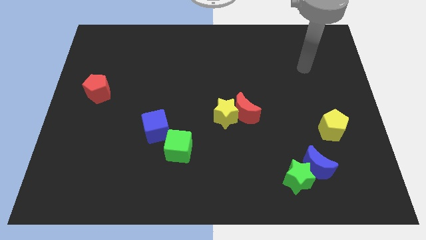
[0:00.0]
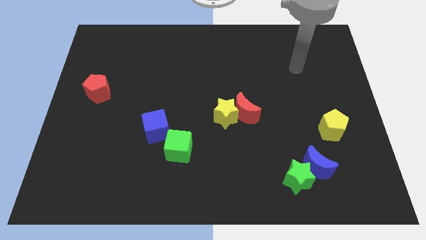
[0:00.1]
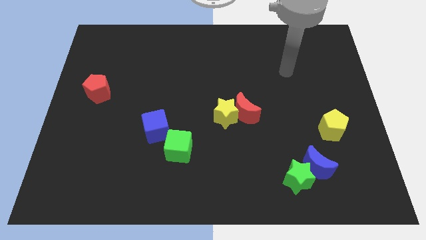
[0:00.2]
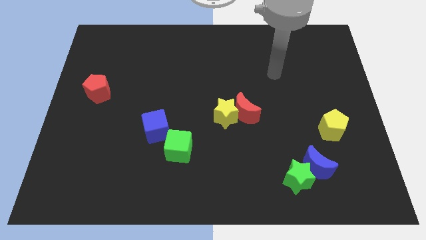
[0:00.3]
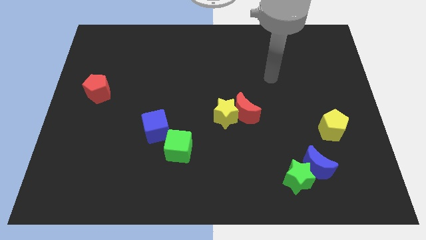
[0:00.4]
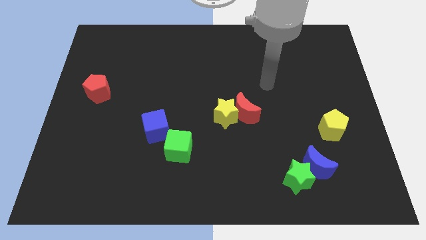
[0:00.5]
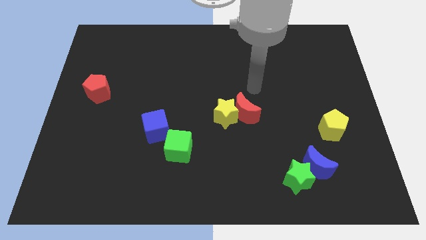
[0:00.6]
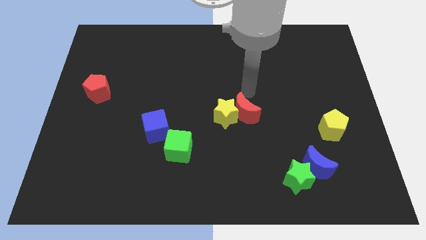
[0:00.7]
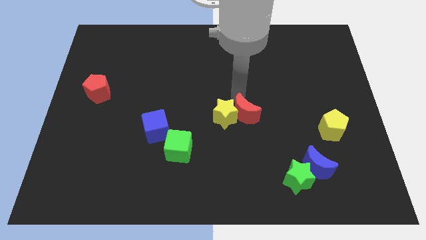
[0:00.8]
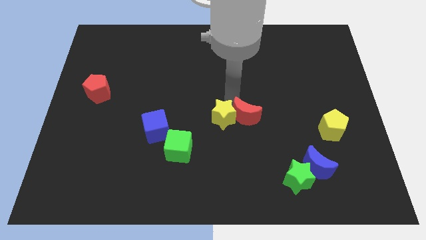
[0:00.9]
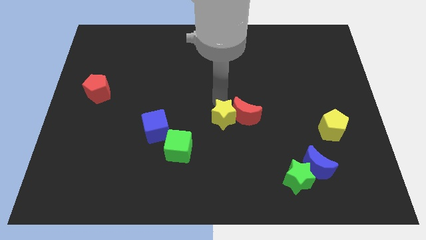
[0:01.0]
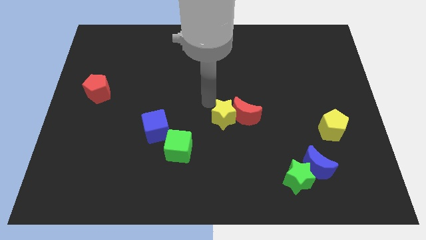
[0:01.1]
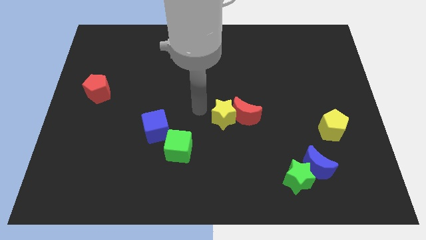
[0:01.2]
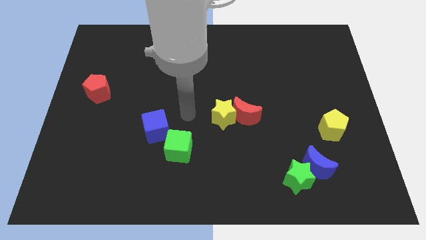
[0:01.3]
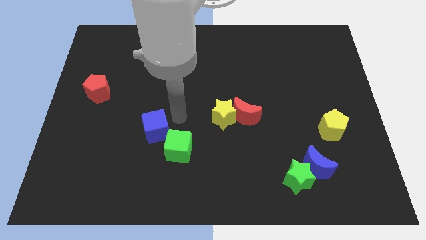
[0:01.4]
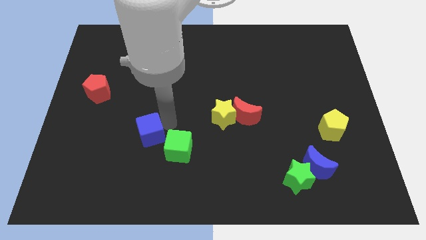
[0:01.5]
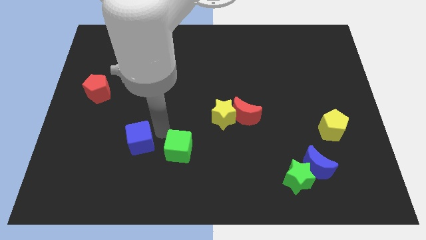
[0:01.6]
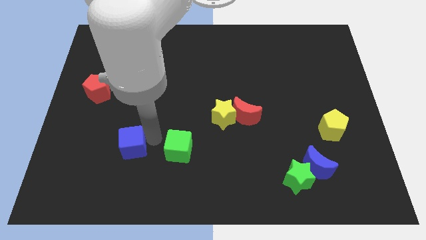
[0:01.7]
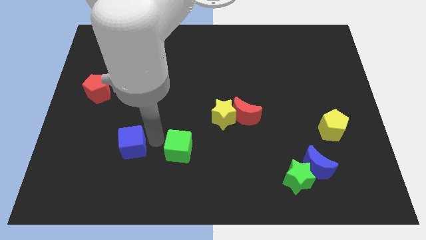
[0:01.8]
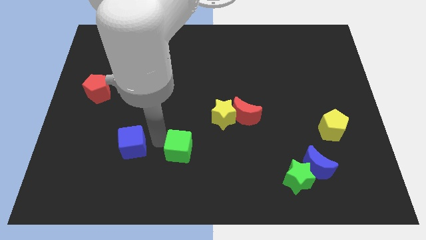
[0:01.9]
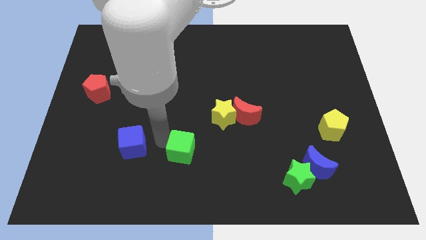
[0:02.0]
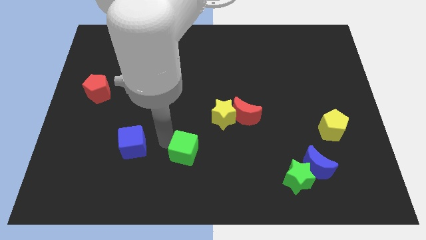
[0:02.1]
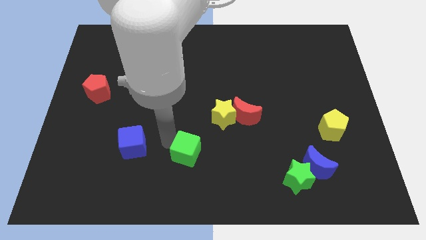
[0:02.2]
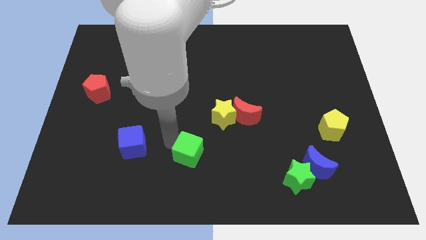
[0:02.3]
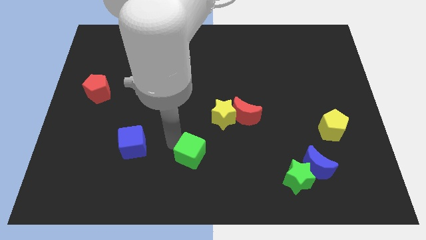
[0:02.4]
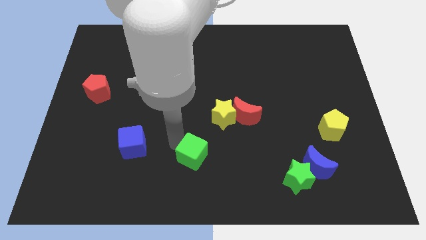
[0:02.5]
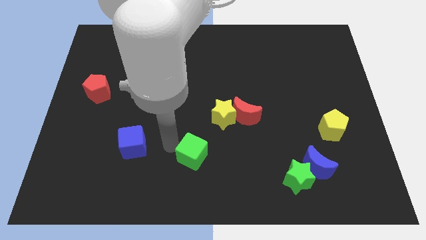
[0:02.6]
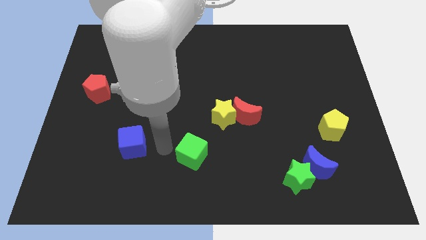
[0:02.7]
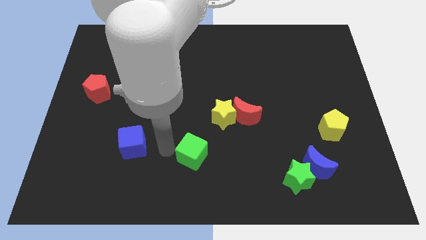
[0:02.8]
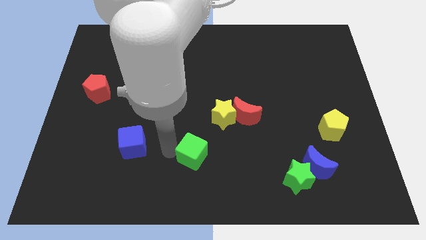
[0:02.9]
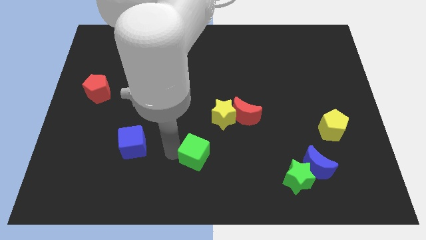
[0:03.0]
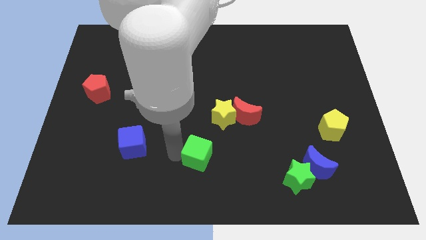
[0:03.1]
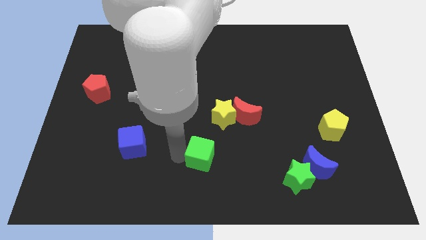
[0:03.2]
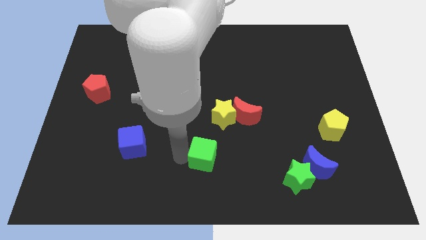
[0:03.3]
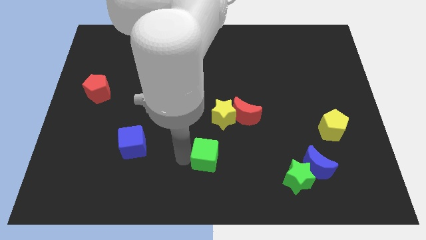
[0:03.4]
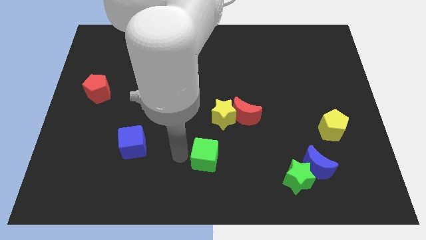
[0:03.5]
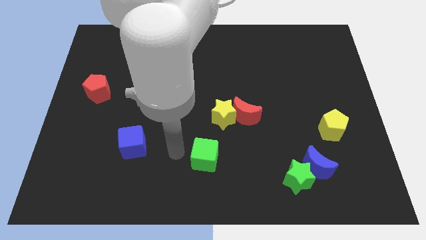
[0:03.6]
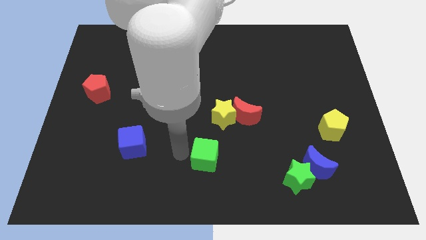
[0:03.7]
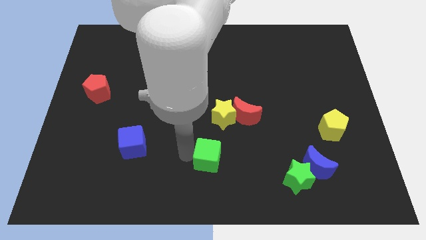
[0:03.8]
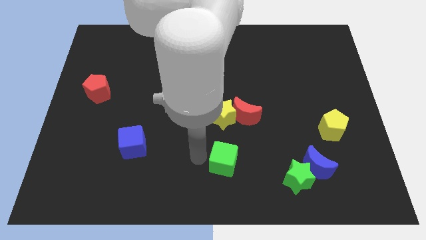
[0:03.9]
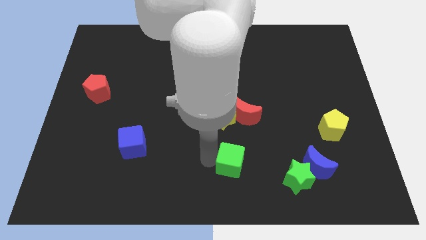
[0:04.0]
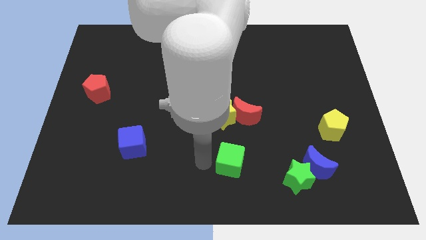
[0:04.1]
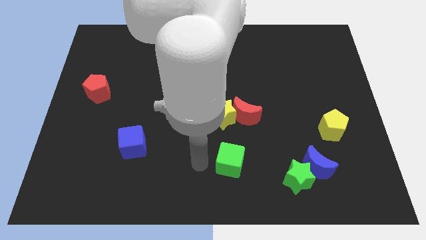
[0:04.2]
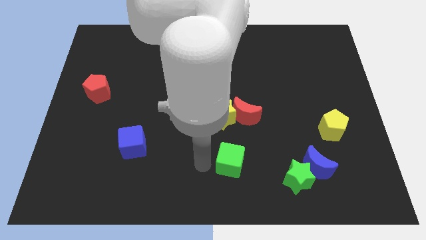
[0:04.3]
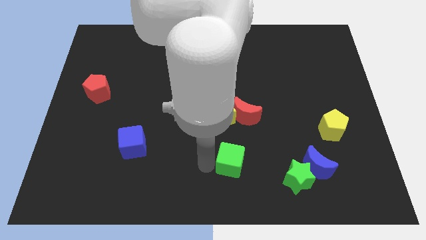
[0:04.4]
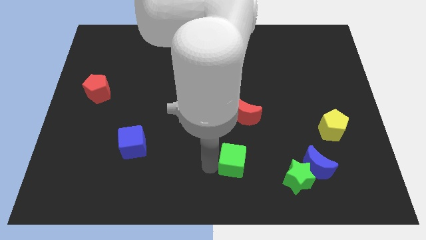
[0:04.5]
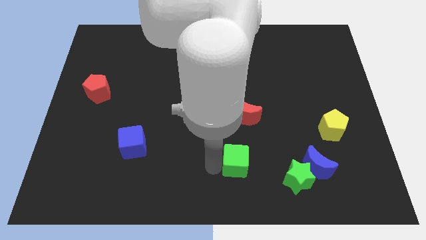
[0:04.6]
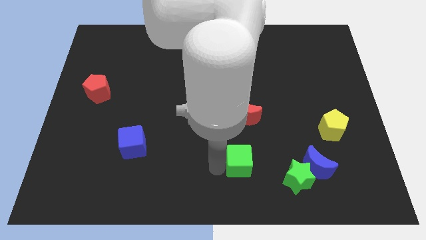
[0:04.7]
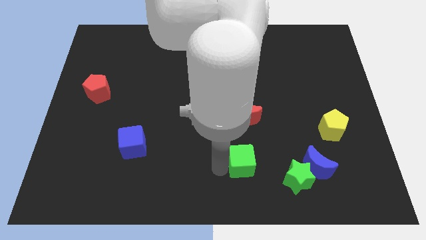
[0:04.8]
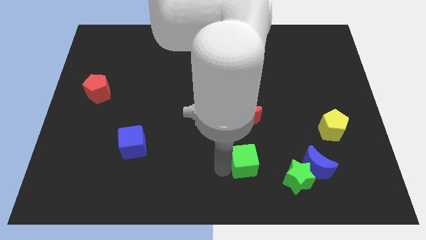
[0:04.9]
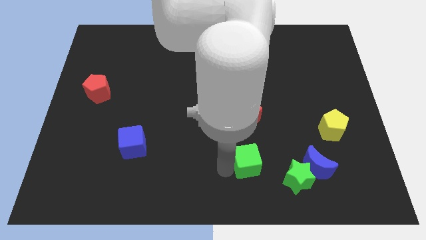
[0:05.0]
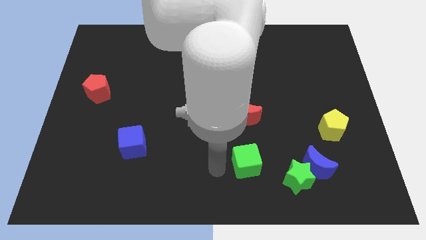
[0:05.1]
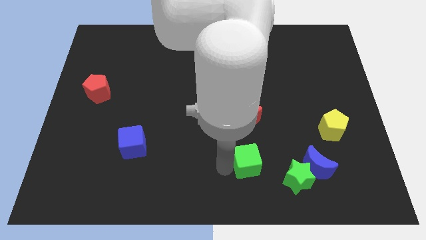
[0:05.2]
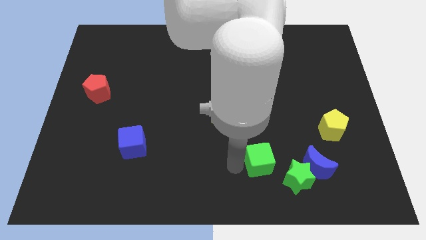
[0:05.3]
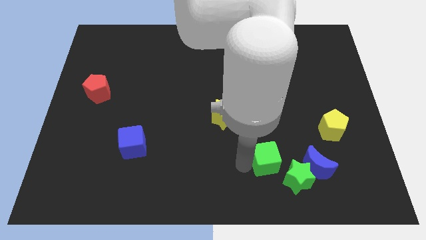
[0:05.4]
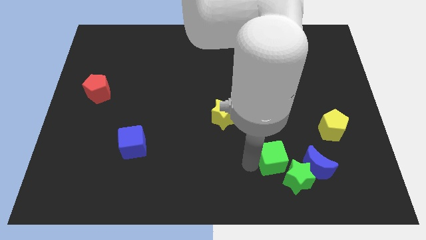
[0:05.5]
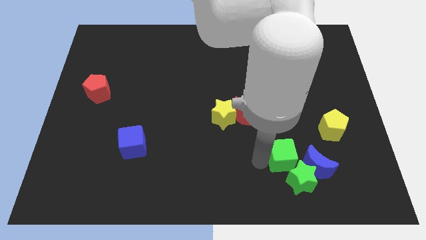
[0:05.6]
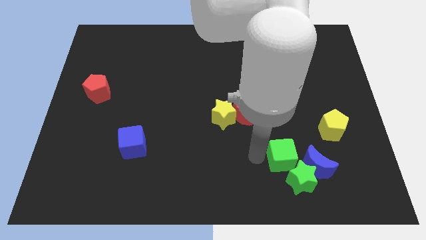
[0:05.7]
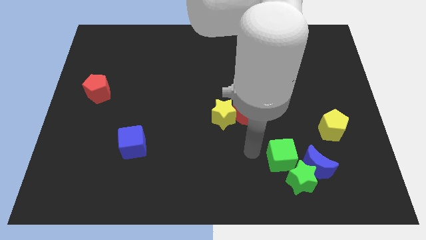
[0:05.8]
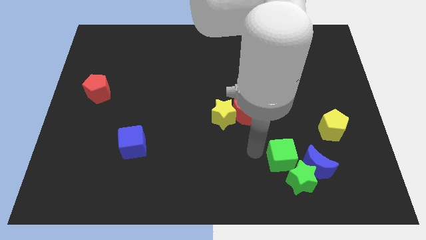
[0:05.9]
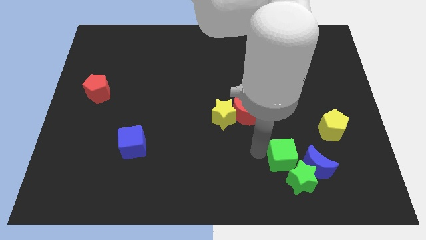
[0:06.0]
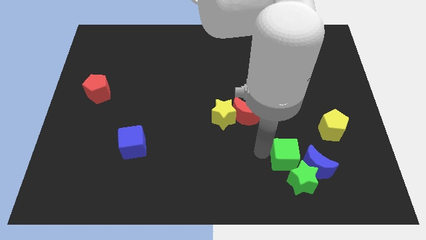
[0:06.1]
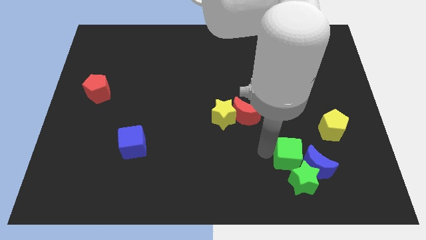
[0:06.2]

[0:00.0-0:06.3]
put the green cube next to the blue moon

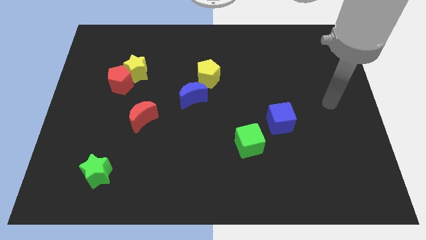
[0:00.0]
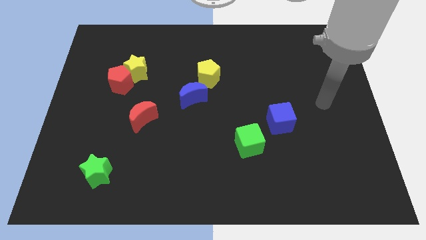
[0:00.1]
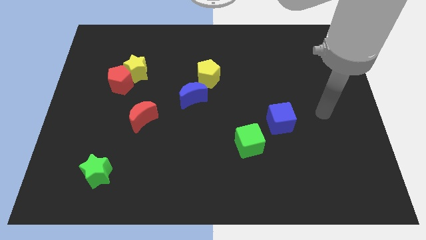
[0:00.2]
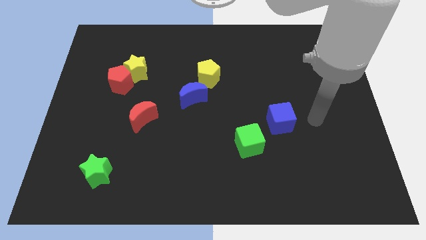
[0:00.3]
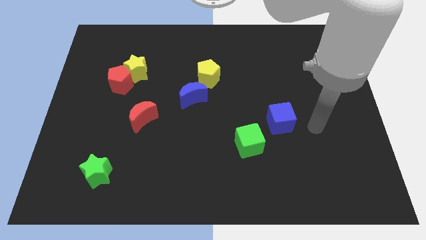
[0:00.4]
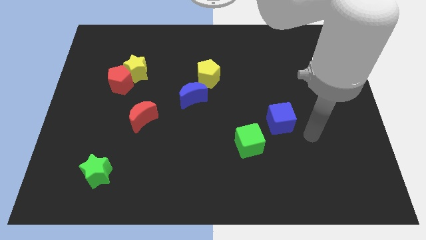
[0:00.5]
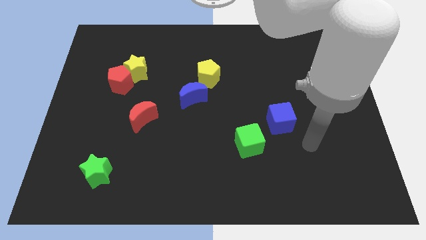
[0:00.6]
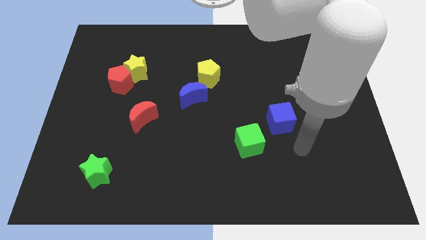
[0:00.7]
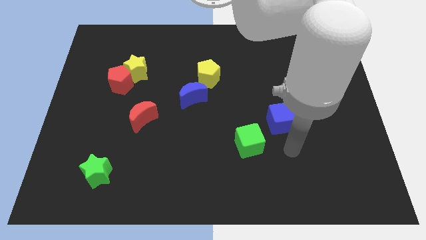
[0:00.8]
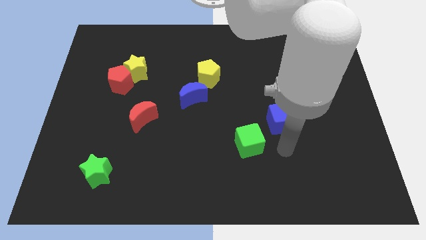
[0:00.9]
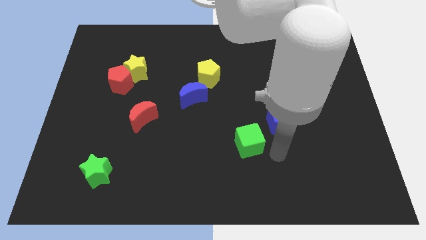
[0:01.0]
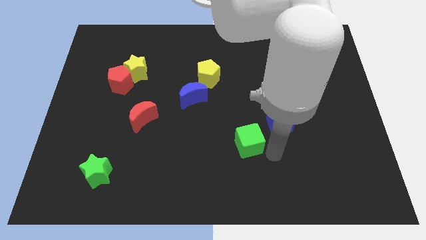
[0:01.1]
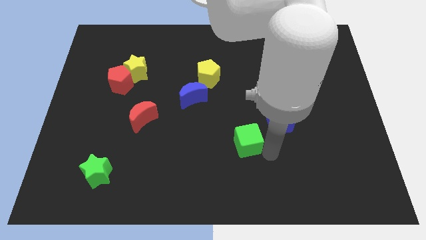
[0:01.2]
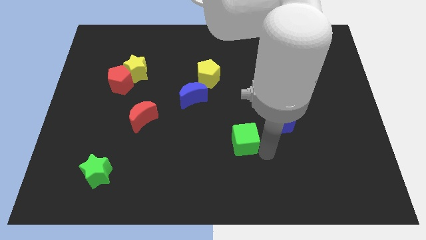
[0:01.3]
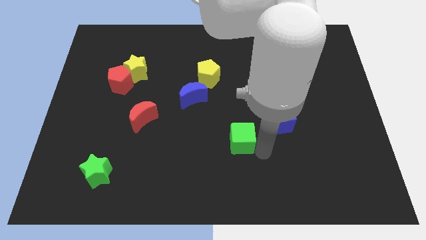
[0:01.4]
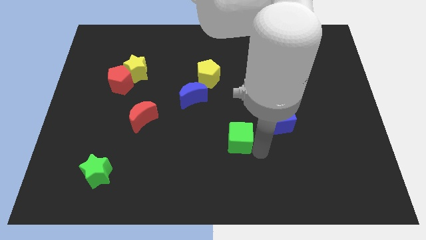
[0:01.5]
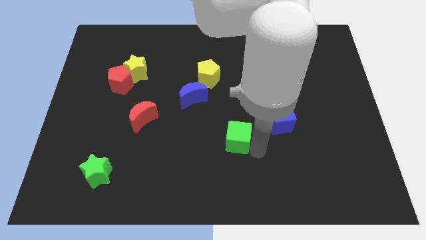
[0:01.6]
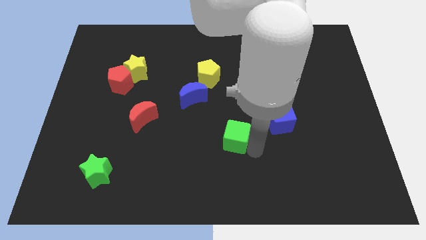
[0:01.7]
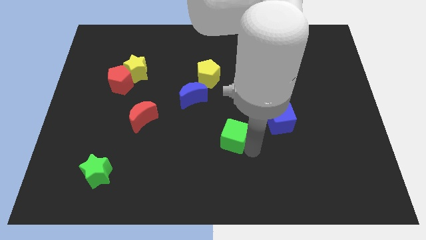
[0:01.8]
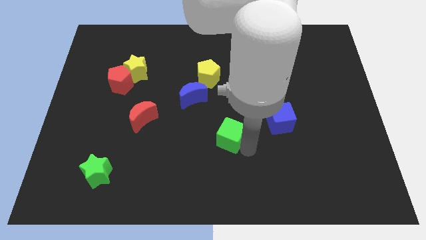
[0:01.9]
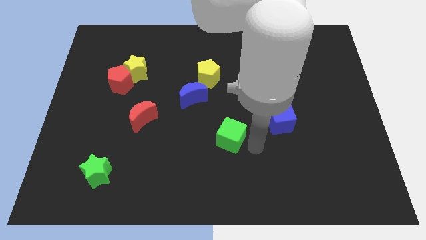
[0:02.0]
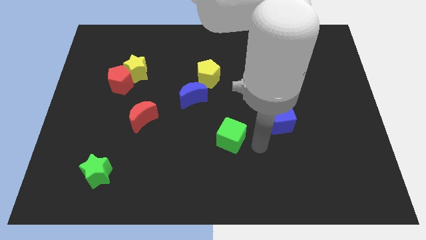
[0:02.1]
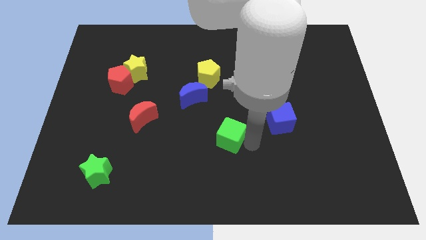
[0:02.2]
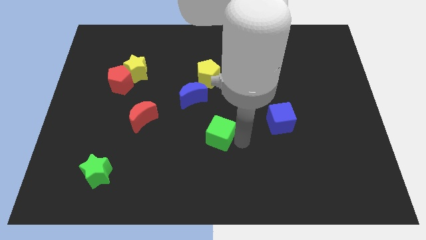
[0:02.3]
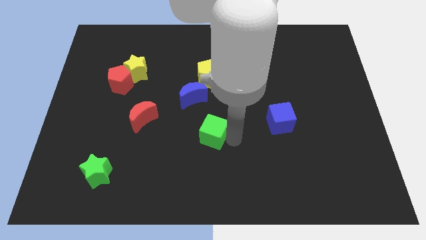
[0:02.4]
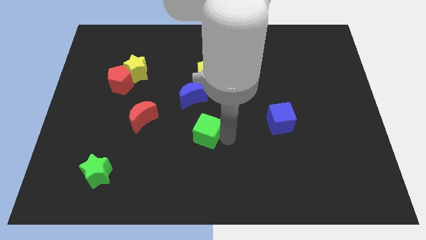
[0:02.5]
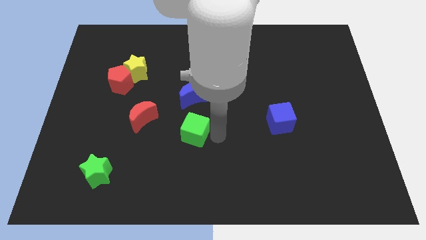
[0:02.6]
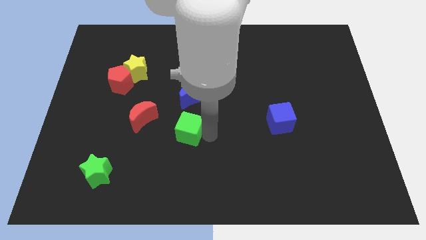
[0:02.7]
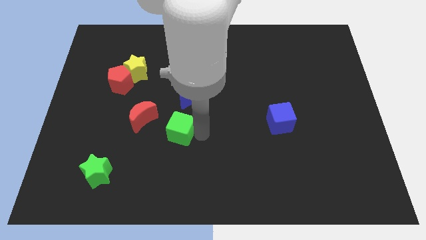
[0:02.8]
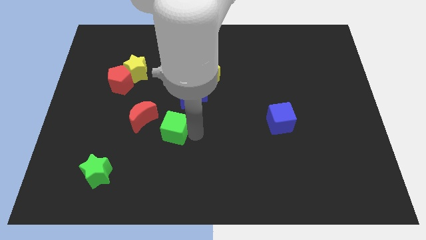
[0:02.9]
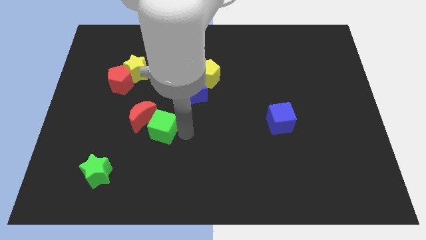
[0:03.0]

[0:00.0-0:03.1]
slide the green cube towards the red moon
